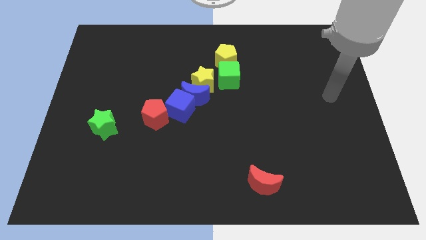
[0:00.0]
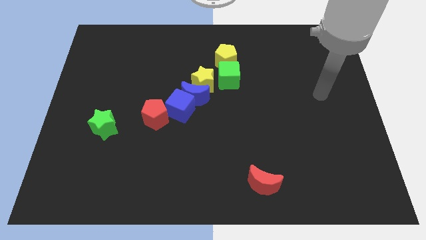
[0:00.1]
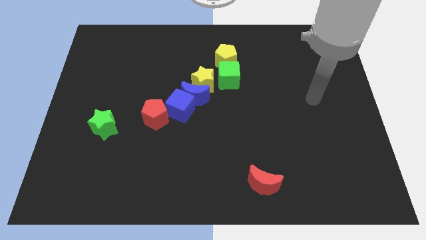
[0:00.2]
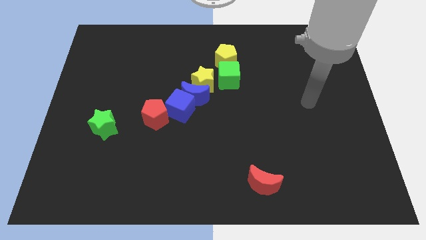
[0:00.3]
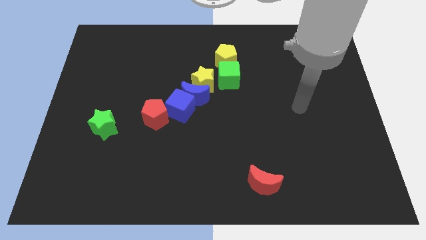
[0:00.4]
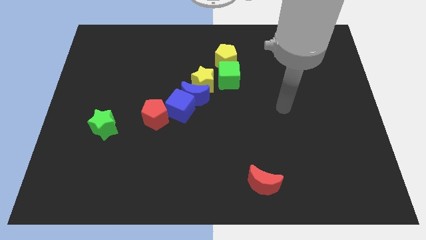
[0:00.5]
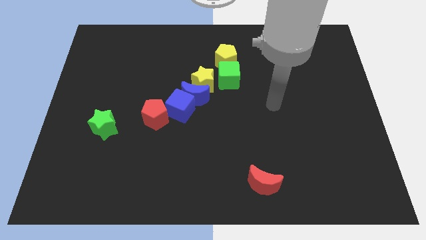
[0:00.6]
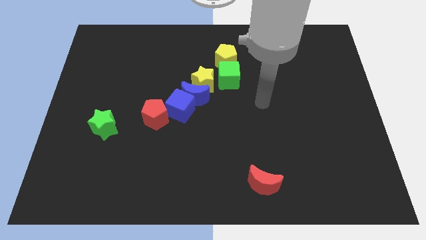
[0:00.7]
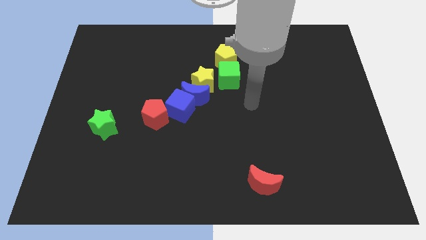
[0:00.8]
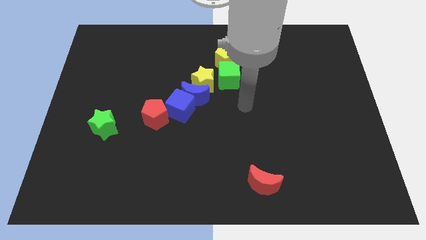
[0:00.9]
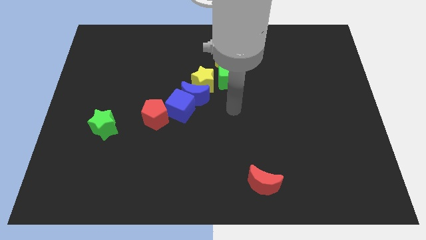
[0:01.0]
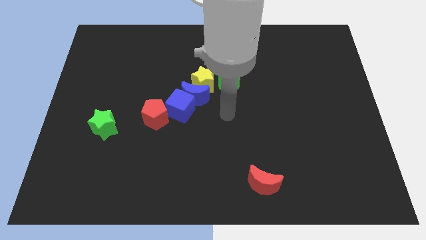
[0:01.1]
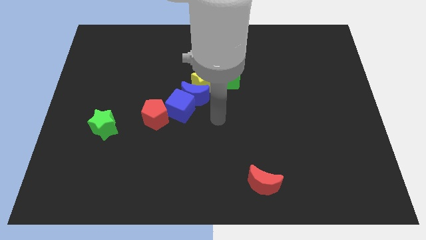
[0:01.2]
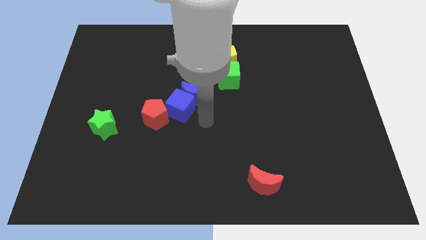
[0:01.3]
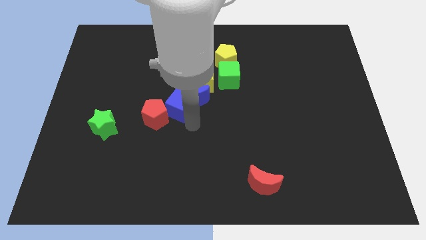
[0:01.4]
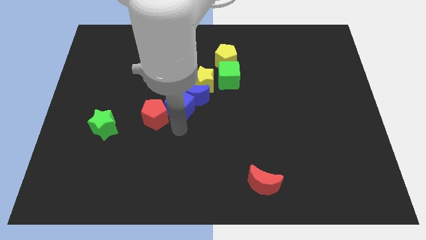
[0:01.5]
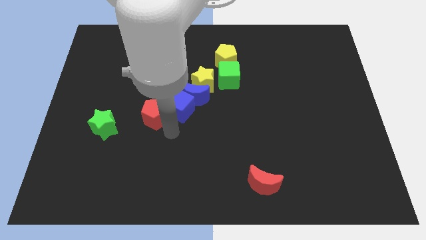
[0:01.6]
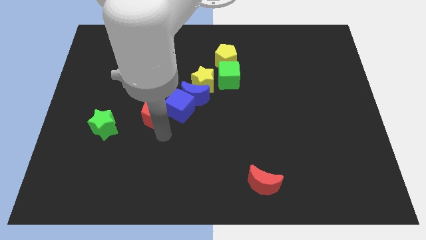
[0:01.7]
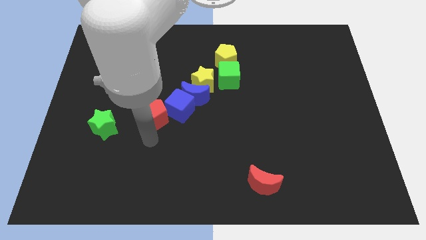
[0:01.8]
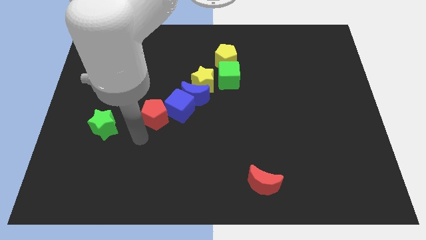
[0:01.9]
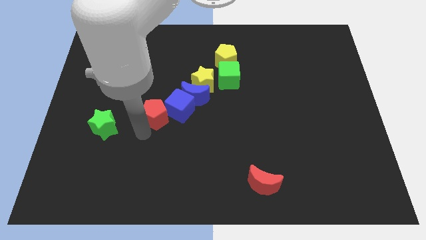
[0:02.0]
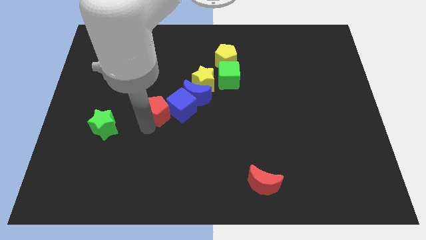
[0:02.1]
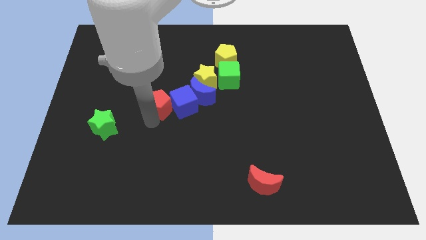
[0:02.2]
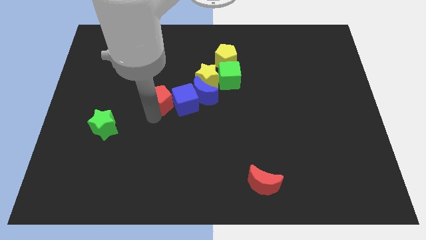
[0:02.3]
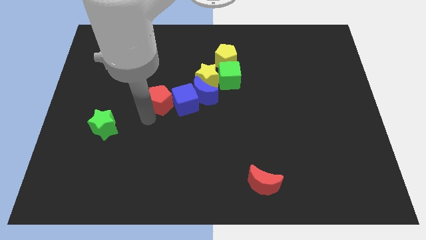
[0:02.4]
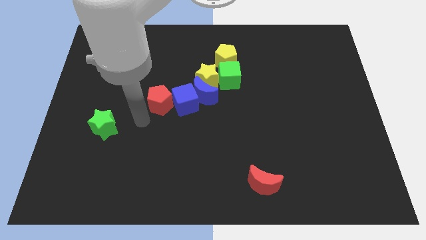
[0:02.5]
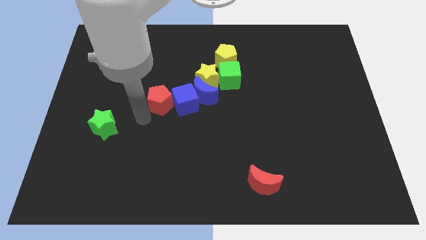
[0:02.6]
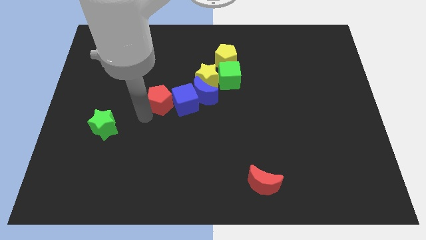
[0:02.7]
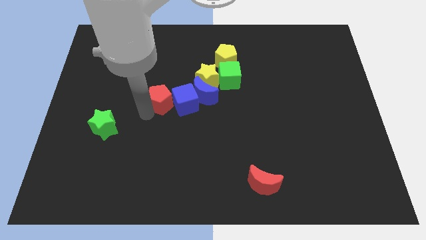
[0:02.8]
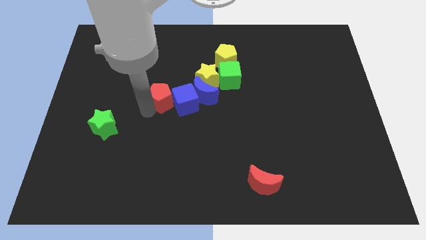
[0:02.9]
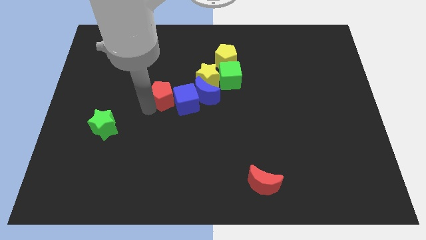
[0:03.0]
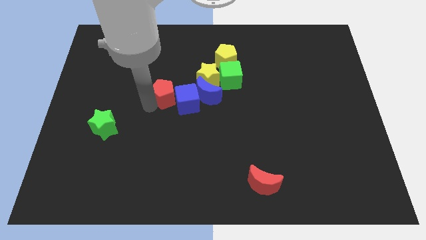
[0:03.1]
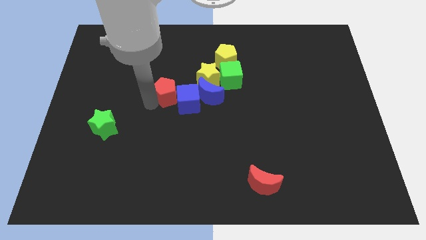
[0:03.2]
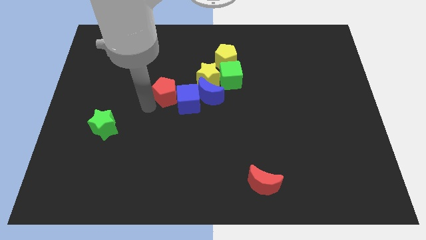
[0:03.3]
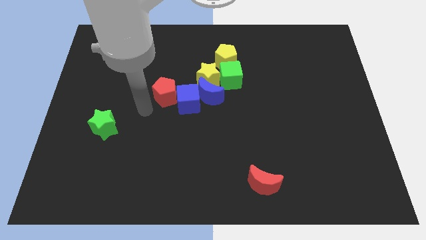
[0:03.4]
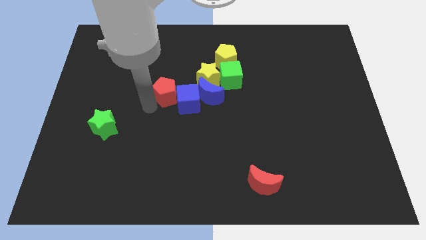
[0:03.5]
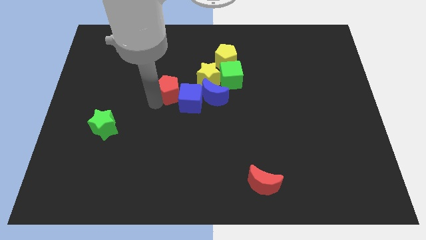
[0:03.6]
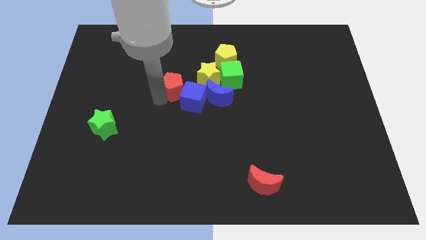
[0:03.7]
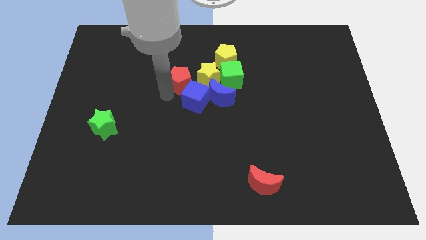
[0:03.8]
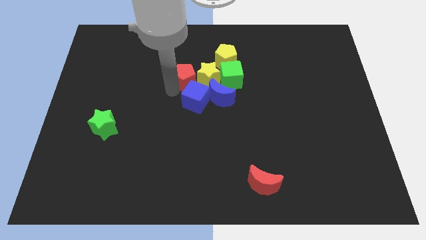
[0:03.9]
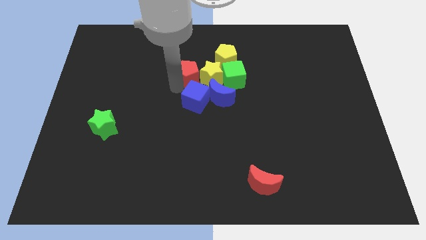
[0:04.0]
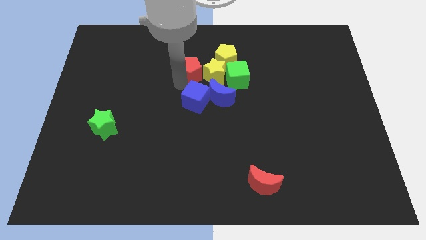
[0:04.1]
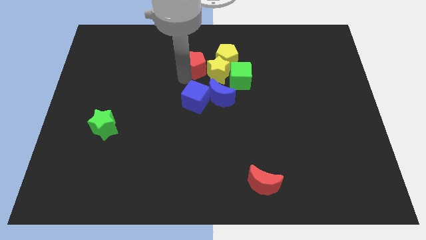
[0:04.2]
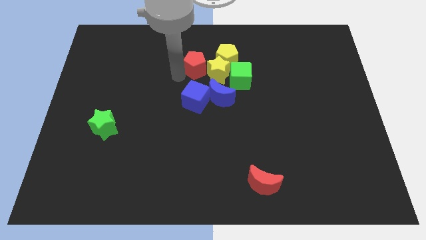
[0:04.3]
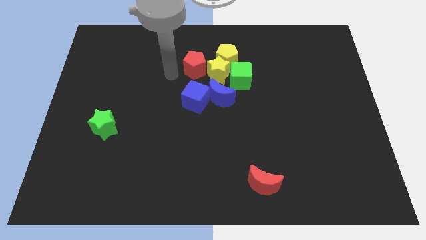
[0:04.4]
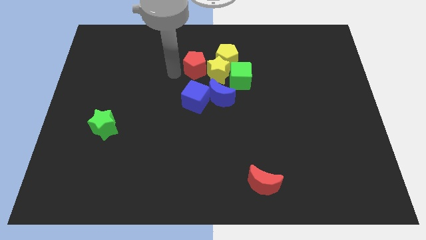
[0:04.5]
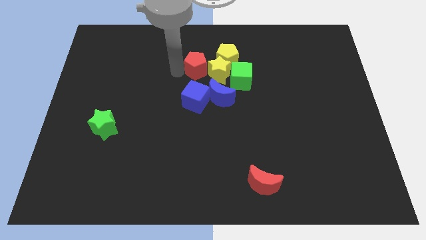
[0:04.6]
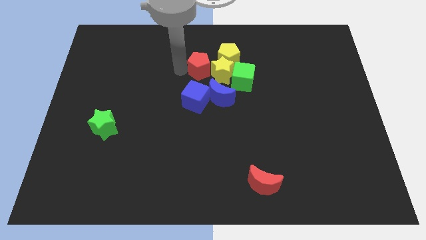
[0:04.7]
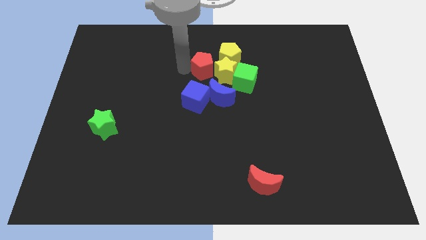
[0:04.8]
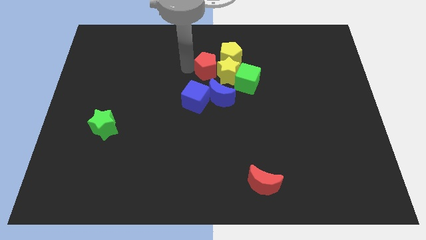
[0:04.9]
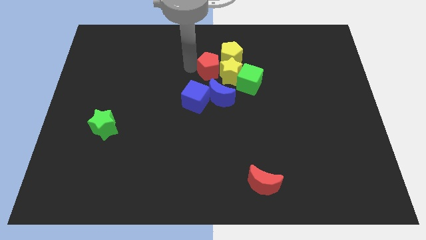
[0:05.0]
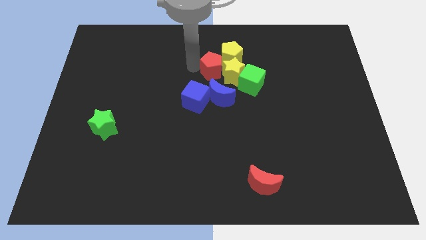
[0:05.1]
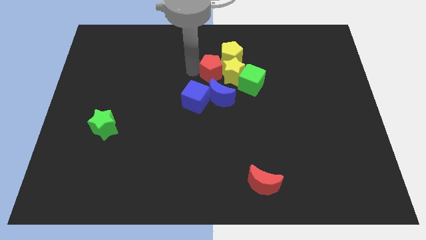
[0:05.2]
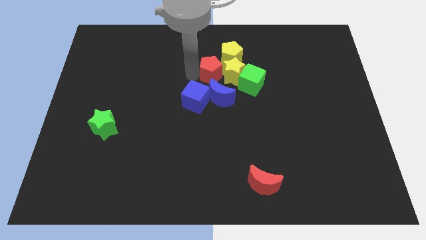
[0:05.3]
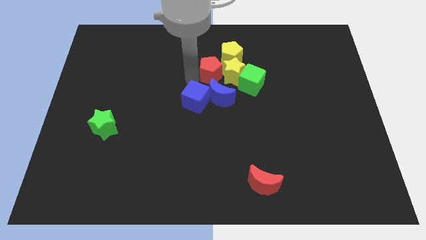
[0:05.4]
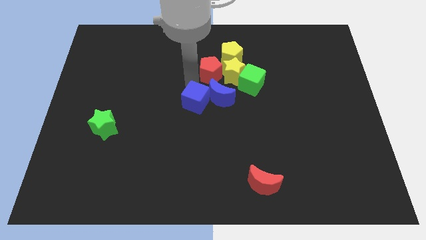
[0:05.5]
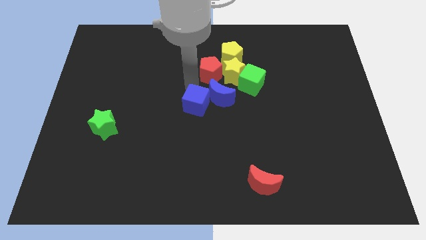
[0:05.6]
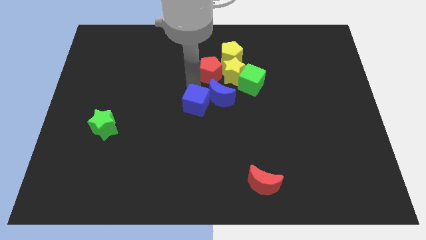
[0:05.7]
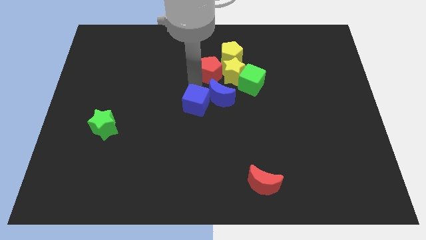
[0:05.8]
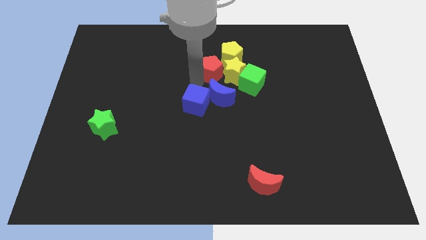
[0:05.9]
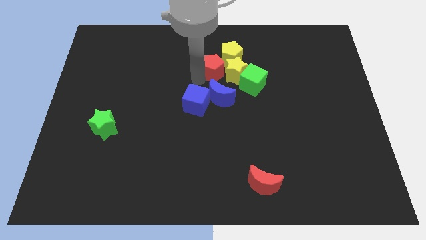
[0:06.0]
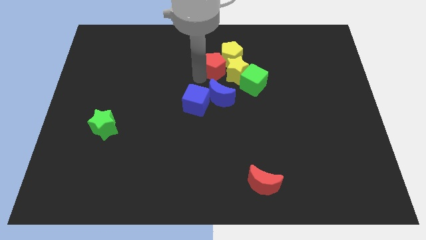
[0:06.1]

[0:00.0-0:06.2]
push the red pentagon towards the yellow pentagon

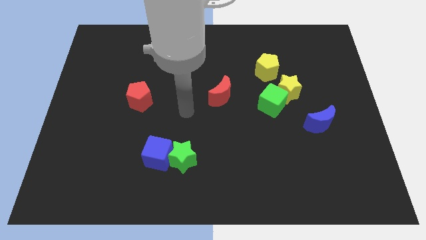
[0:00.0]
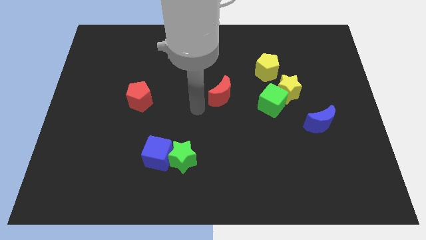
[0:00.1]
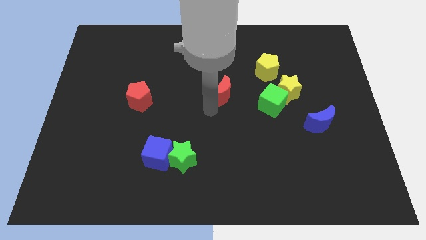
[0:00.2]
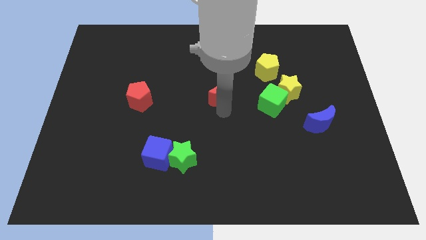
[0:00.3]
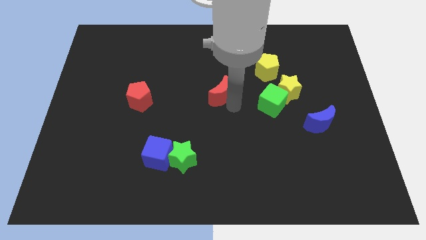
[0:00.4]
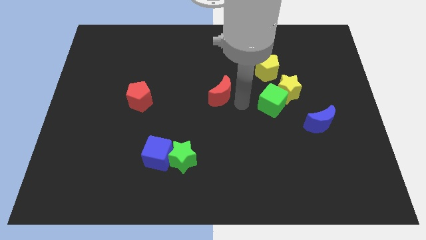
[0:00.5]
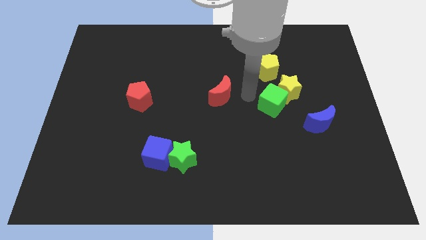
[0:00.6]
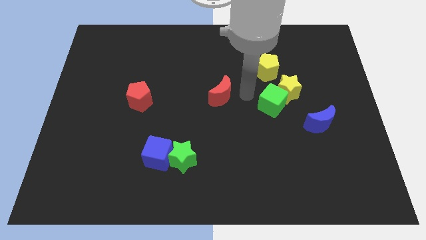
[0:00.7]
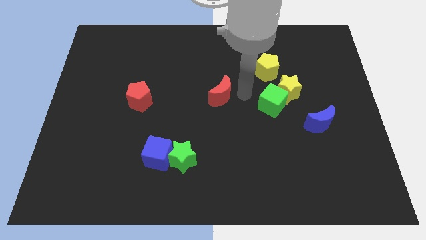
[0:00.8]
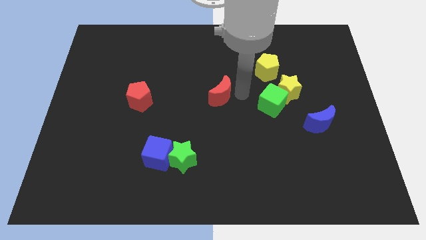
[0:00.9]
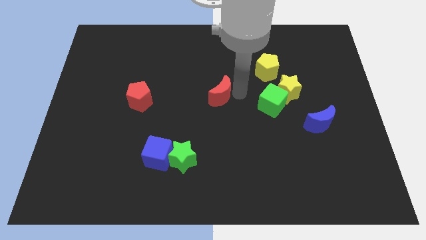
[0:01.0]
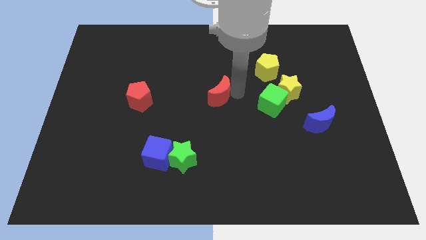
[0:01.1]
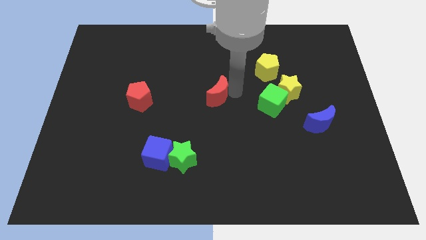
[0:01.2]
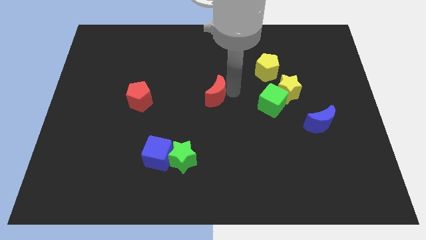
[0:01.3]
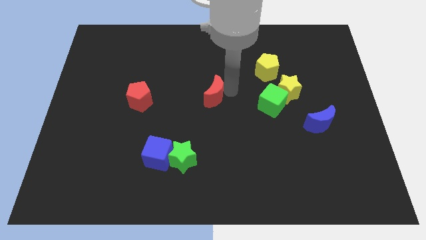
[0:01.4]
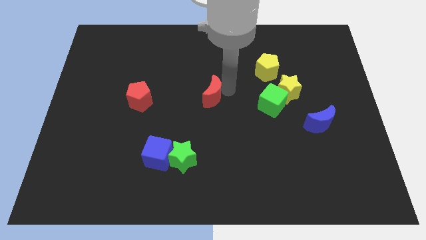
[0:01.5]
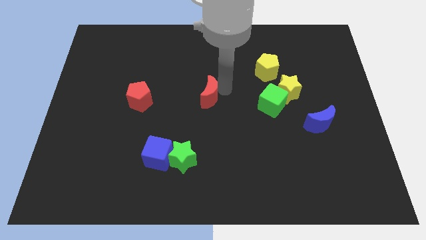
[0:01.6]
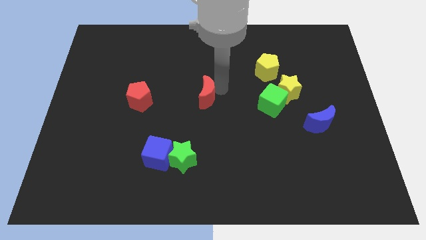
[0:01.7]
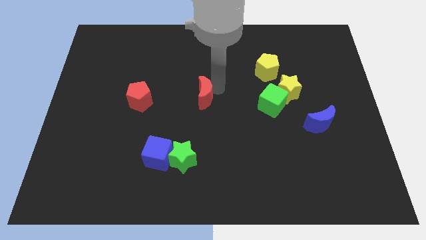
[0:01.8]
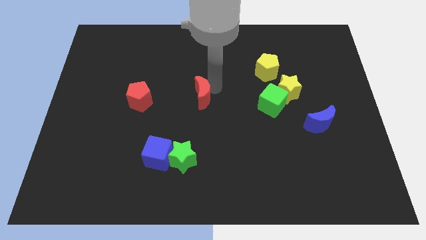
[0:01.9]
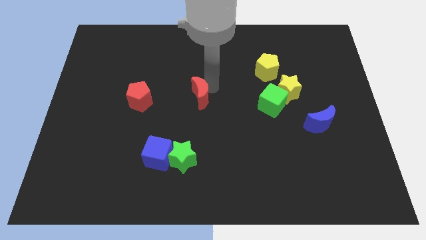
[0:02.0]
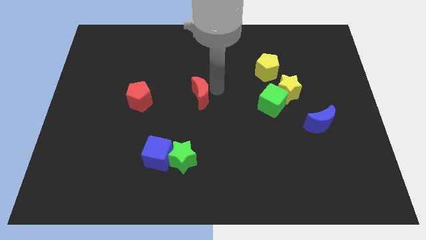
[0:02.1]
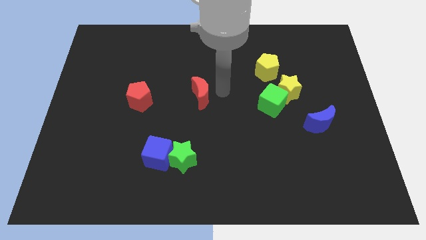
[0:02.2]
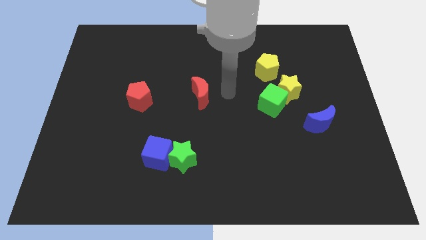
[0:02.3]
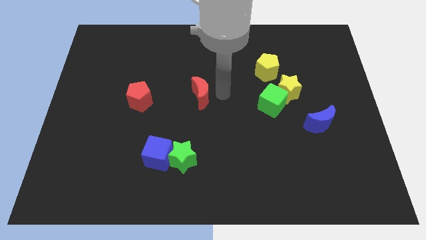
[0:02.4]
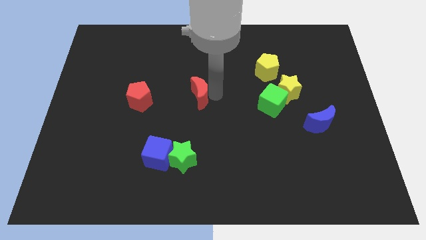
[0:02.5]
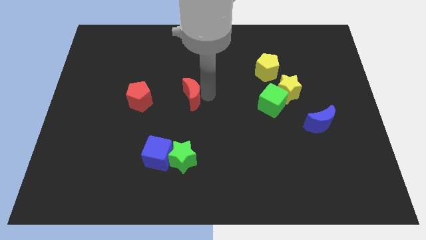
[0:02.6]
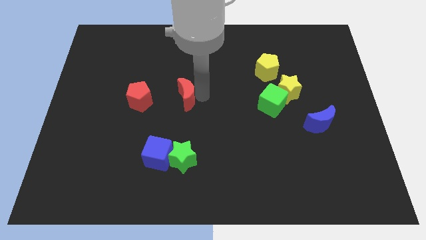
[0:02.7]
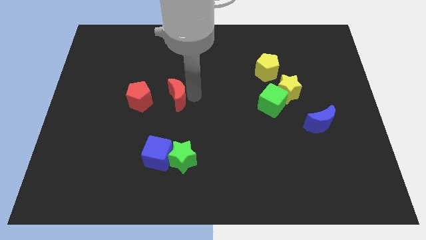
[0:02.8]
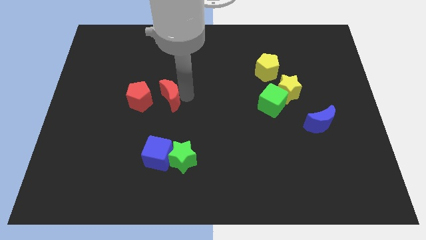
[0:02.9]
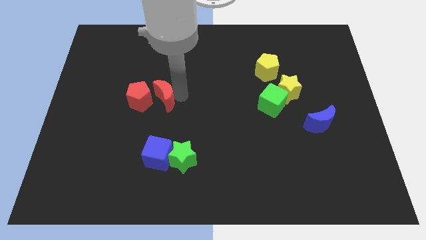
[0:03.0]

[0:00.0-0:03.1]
move the red moon to the red pentagon
